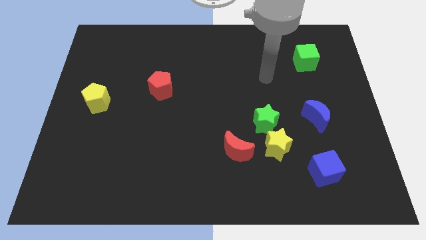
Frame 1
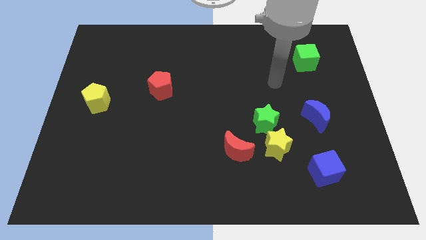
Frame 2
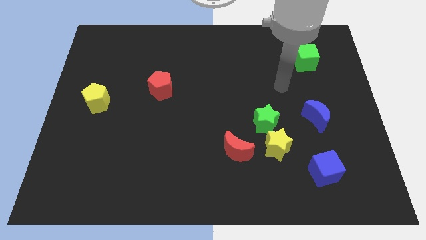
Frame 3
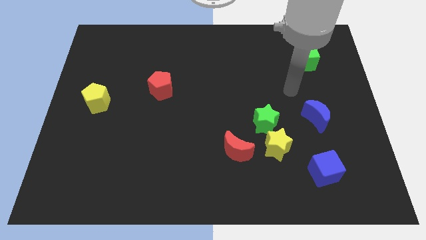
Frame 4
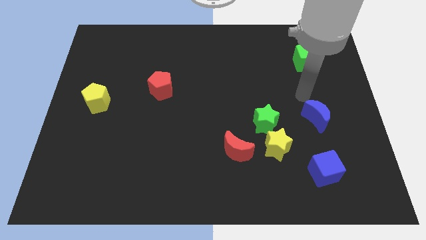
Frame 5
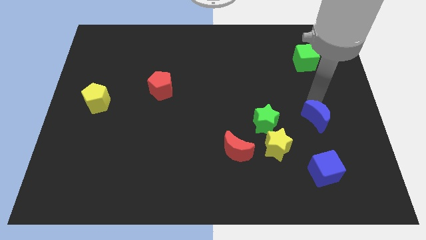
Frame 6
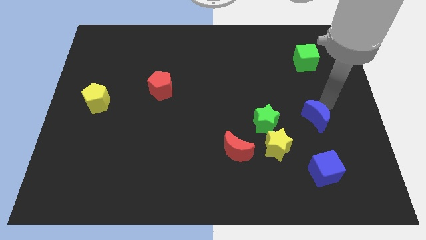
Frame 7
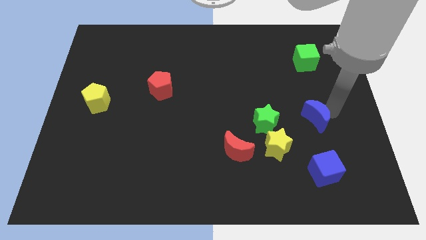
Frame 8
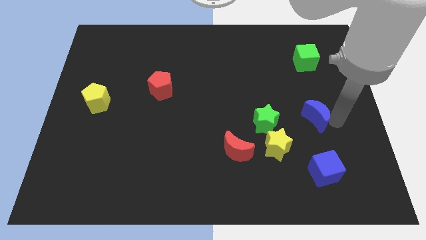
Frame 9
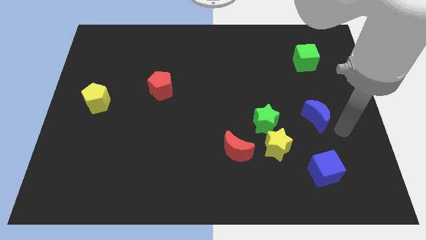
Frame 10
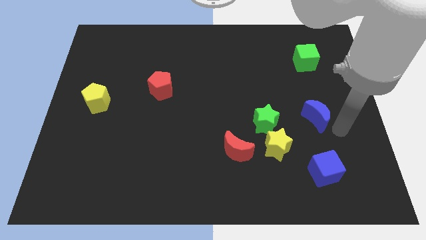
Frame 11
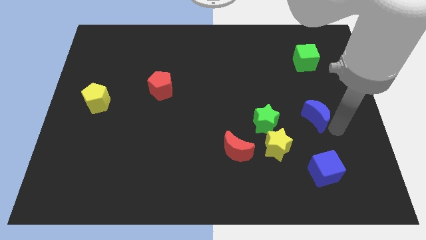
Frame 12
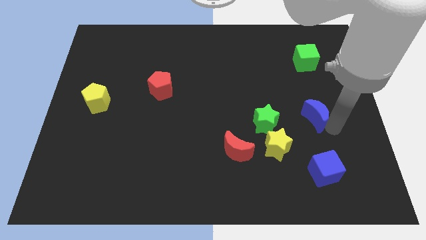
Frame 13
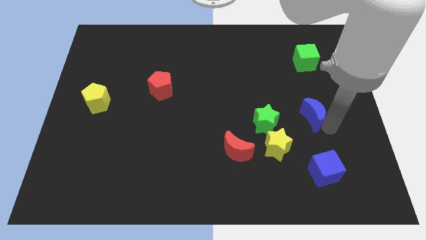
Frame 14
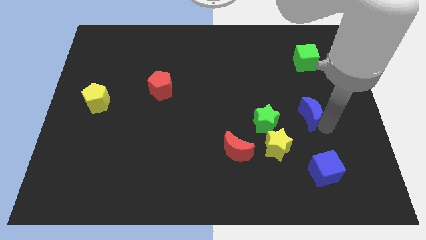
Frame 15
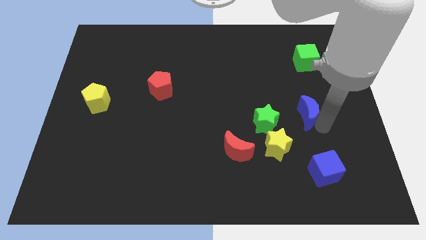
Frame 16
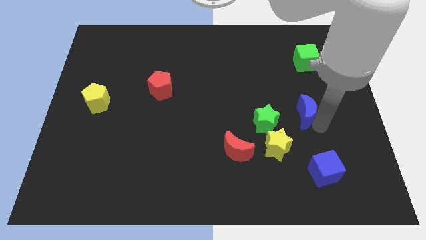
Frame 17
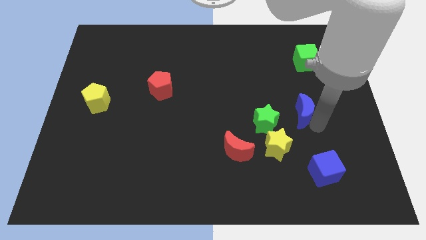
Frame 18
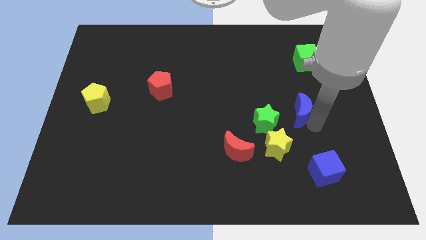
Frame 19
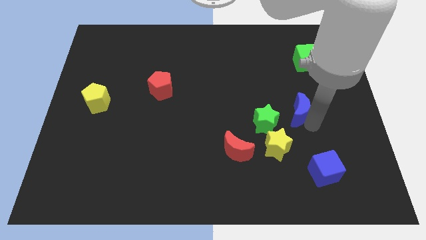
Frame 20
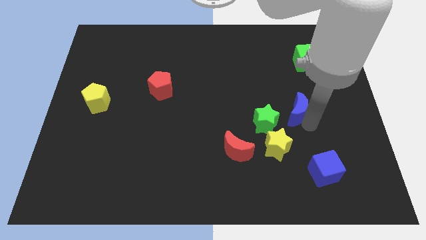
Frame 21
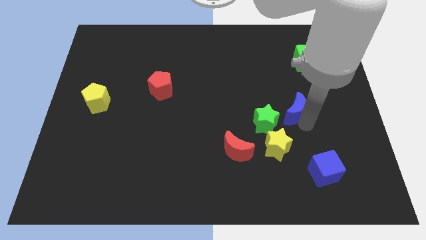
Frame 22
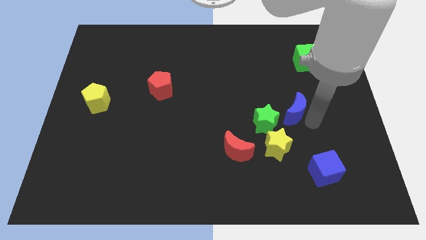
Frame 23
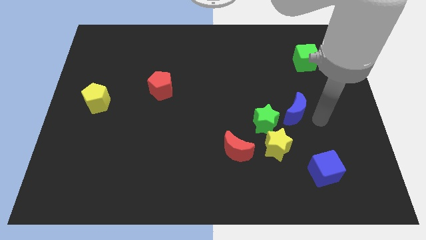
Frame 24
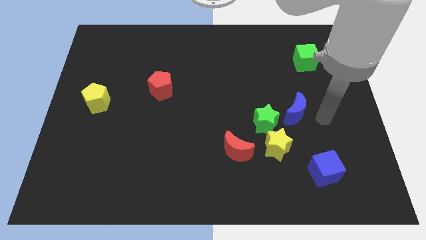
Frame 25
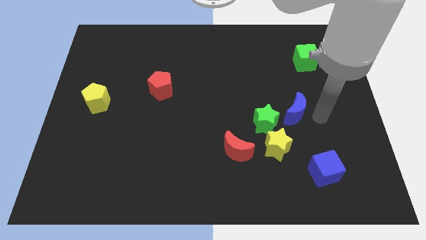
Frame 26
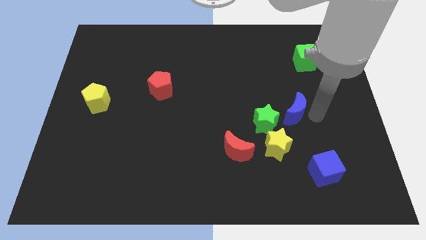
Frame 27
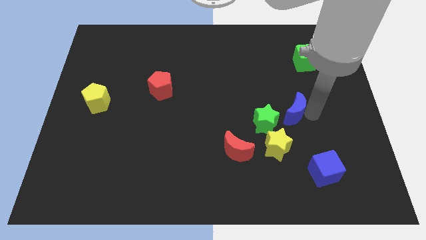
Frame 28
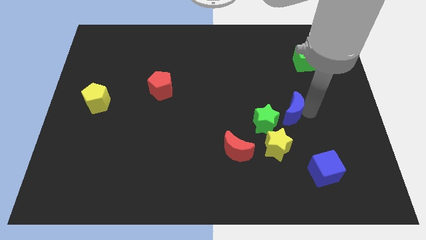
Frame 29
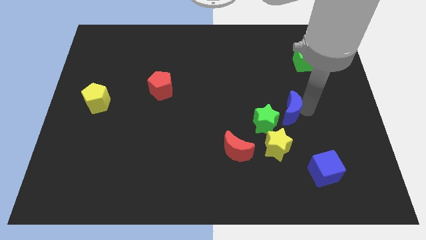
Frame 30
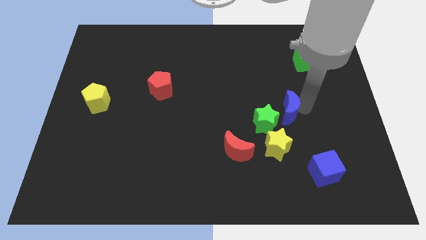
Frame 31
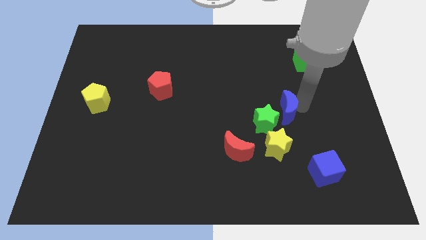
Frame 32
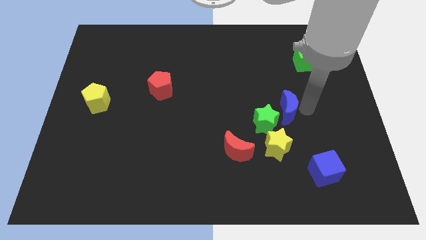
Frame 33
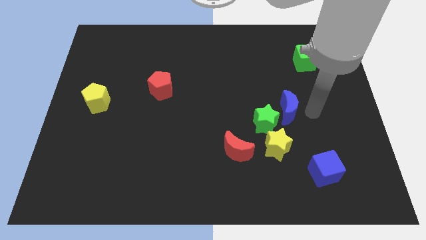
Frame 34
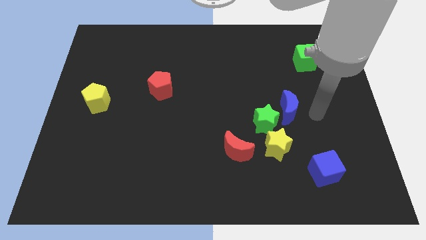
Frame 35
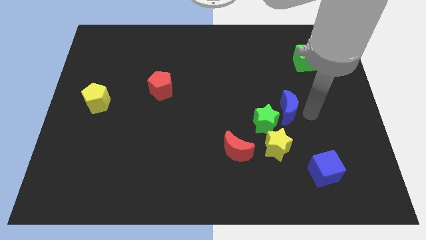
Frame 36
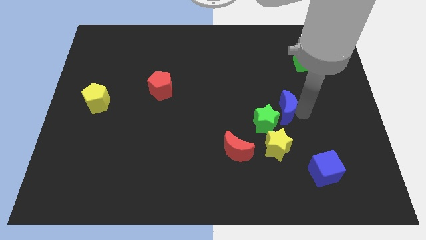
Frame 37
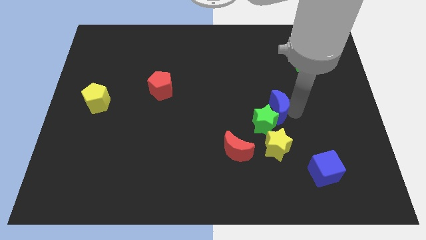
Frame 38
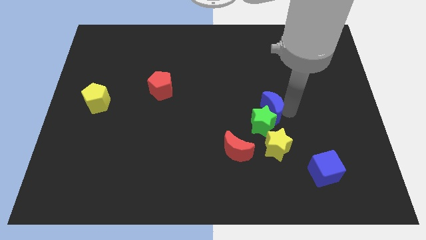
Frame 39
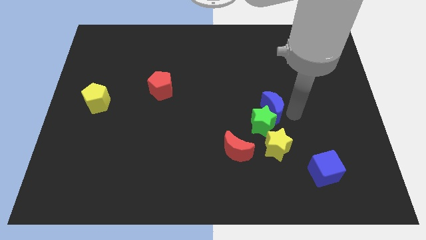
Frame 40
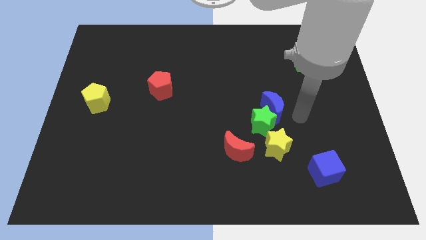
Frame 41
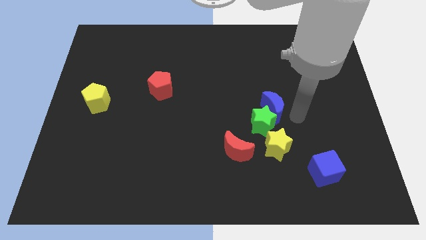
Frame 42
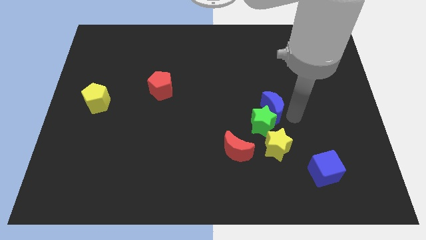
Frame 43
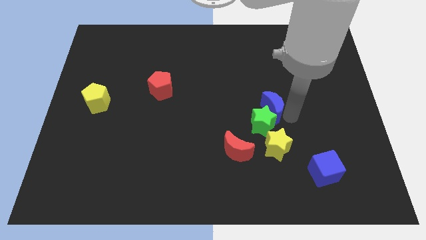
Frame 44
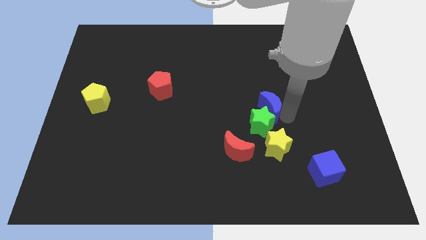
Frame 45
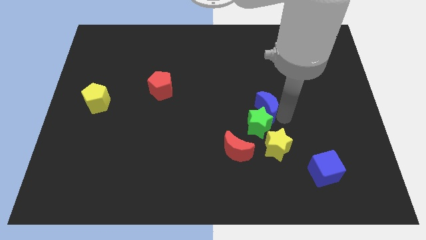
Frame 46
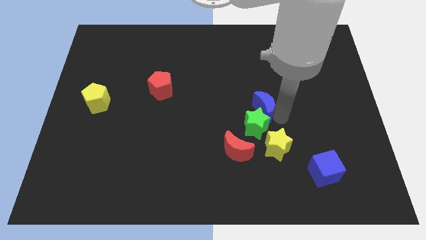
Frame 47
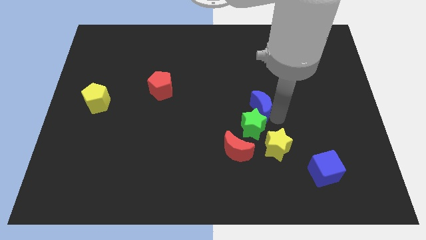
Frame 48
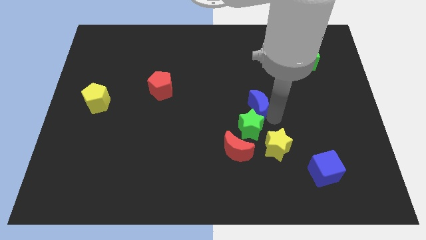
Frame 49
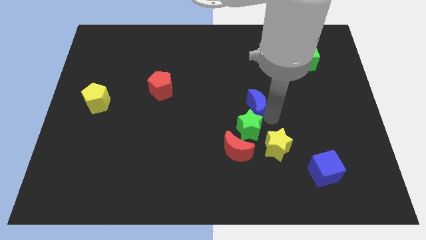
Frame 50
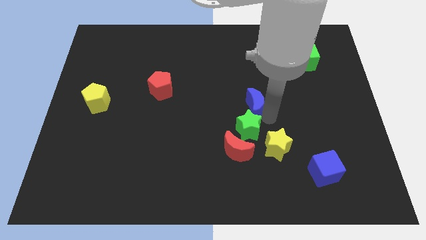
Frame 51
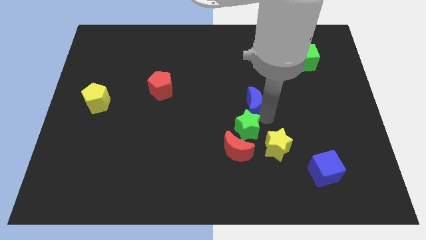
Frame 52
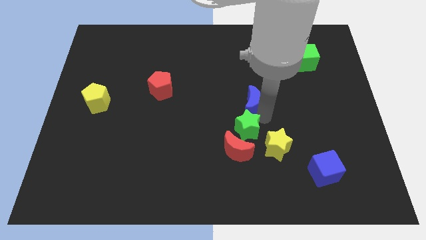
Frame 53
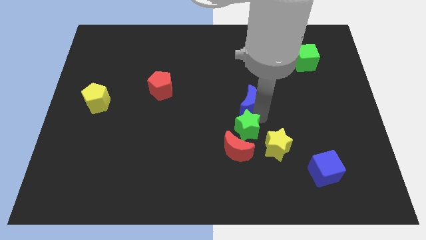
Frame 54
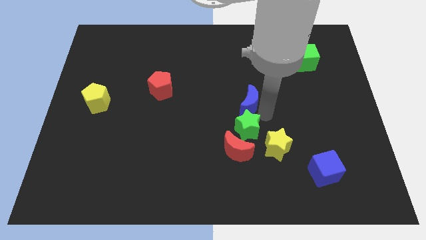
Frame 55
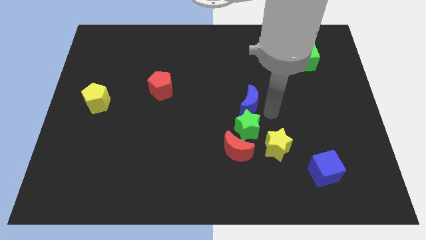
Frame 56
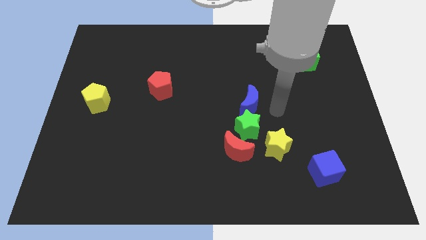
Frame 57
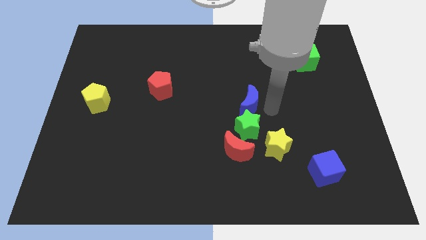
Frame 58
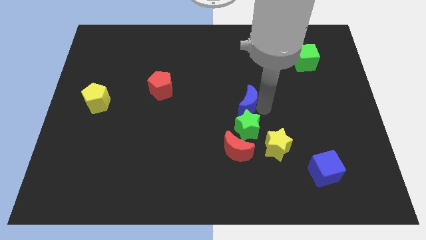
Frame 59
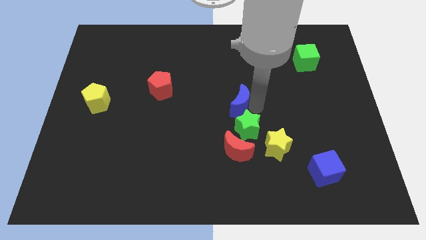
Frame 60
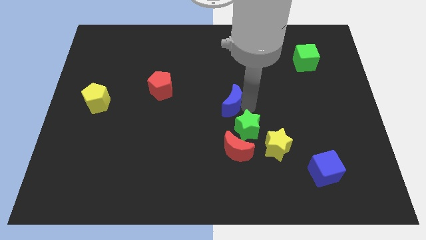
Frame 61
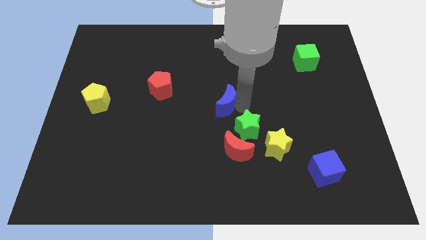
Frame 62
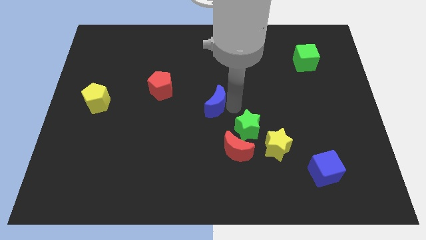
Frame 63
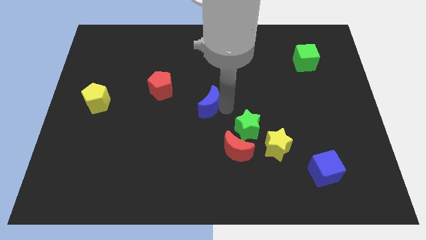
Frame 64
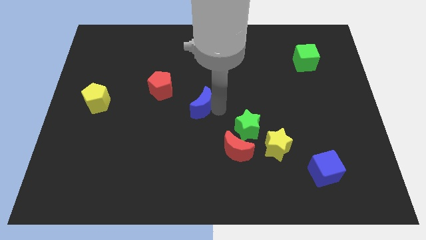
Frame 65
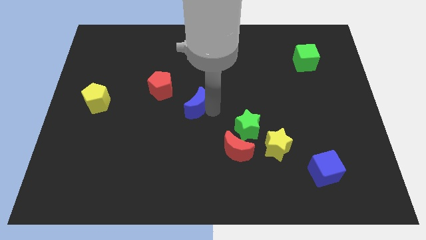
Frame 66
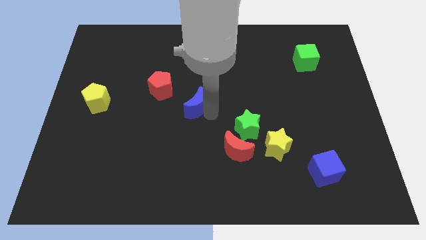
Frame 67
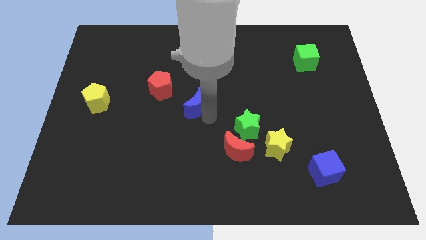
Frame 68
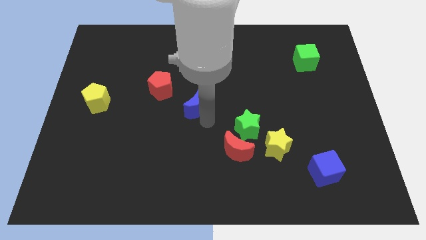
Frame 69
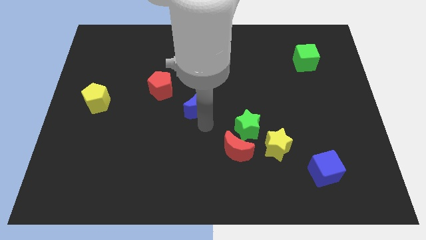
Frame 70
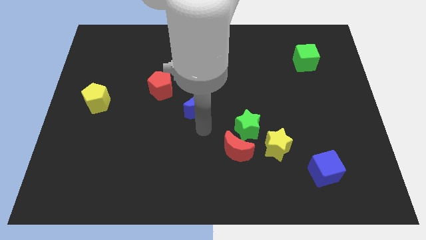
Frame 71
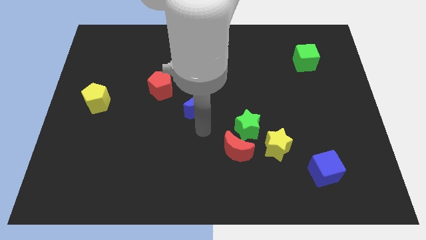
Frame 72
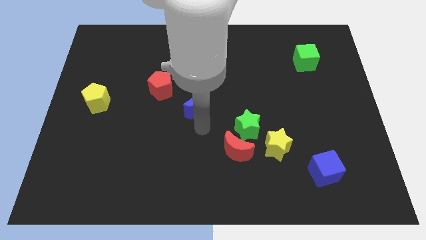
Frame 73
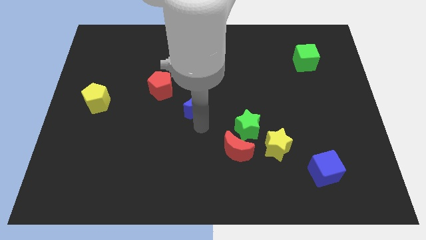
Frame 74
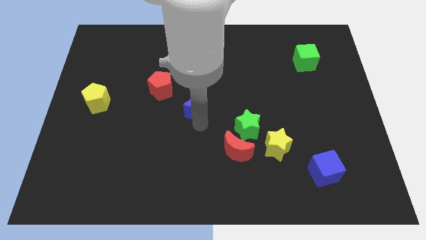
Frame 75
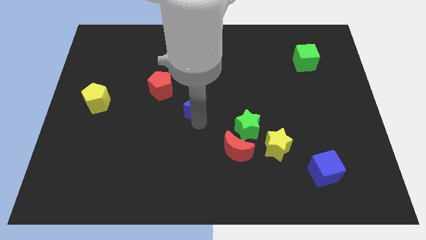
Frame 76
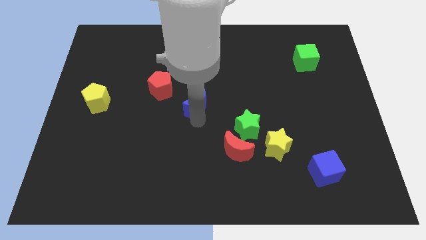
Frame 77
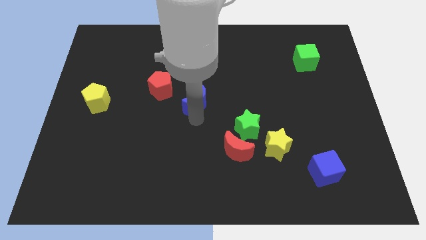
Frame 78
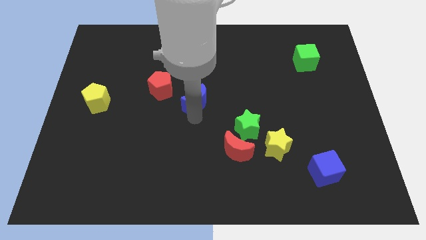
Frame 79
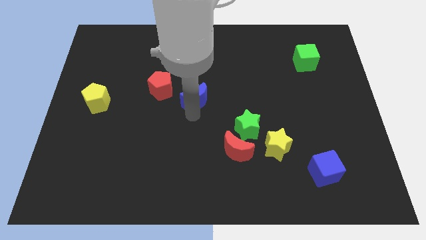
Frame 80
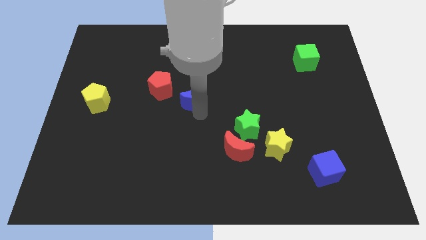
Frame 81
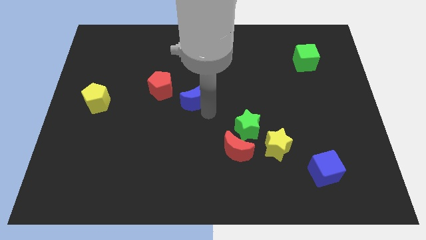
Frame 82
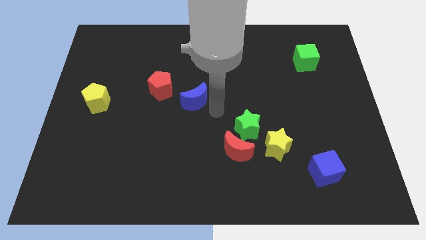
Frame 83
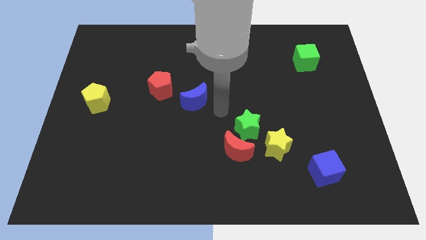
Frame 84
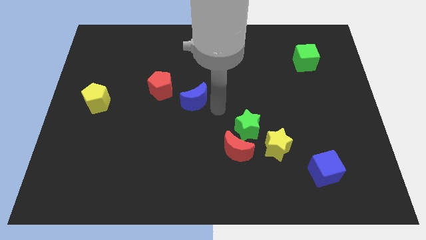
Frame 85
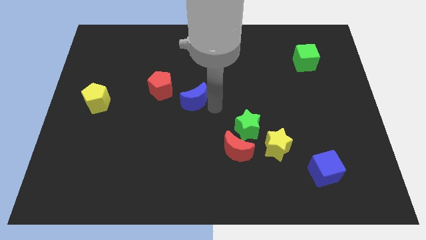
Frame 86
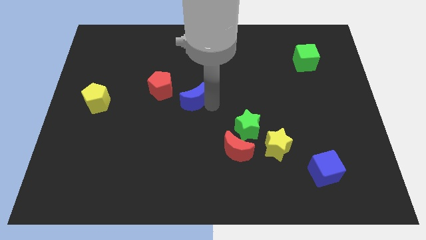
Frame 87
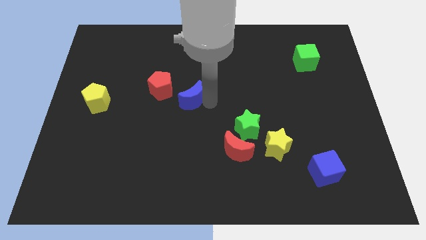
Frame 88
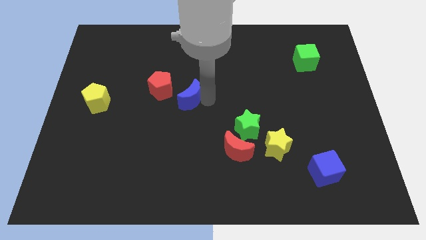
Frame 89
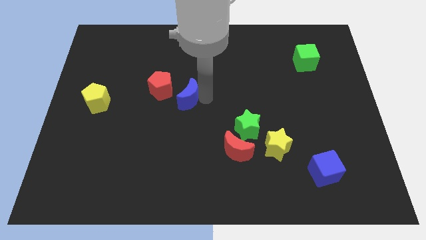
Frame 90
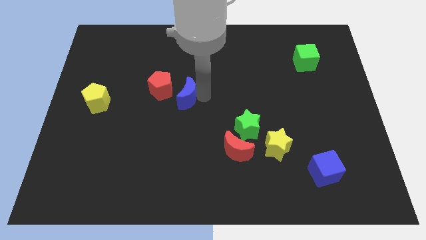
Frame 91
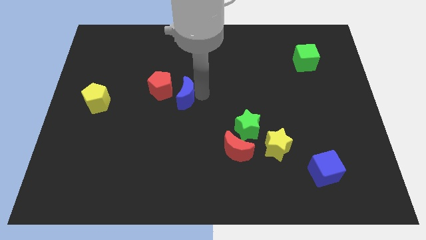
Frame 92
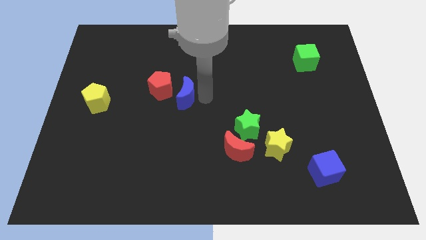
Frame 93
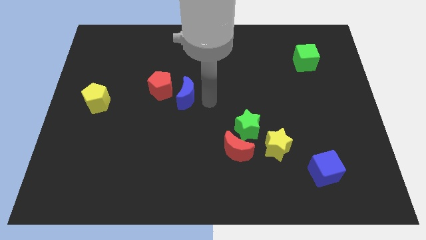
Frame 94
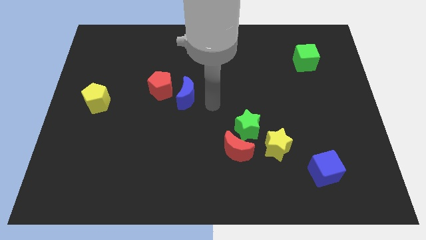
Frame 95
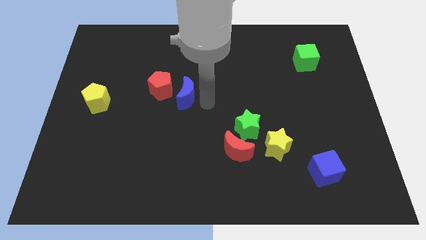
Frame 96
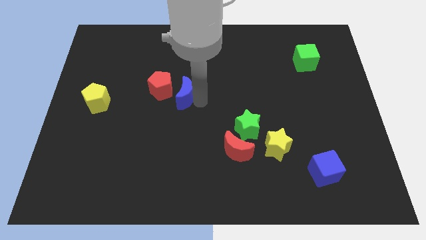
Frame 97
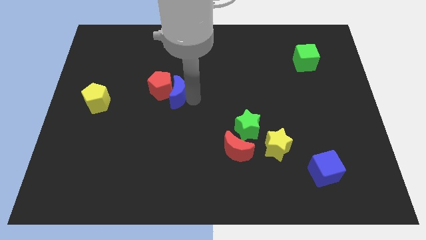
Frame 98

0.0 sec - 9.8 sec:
put the blue moon next to the red pentagon
